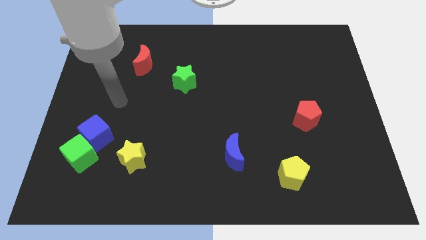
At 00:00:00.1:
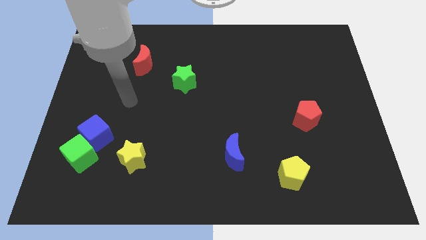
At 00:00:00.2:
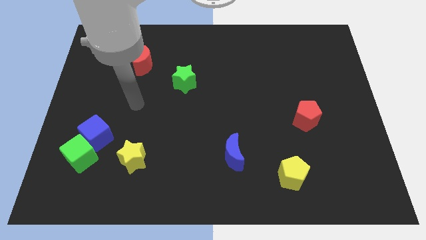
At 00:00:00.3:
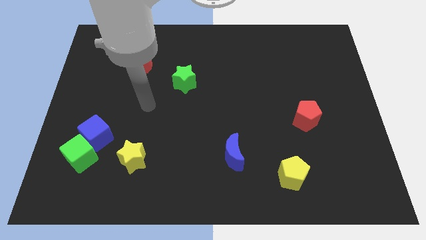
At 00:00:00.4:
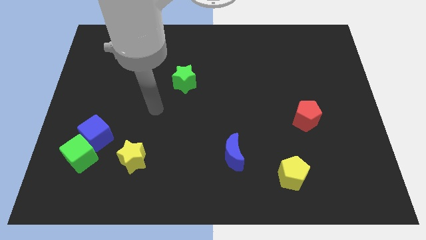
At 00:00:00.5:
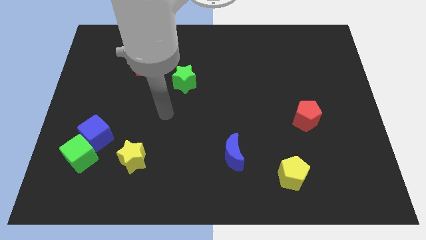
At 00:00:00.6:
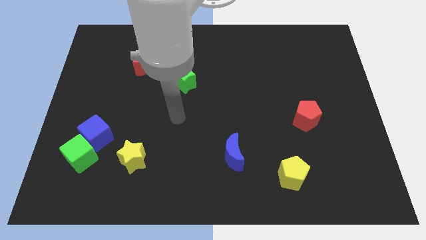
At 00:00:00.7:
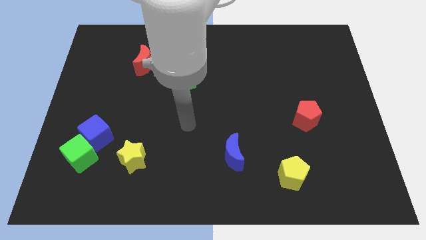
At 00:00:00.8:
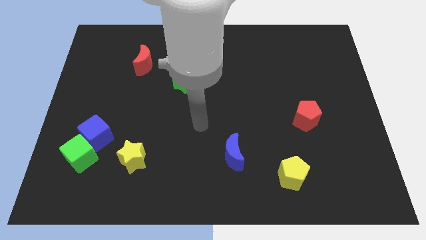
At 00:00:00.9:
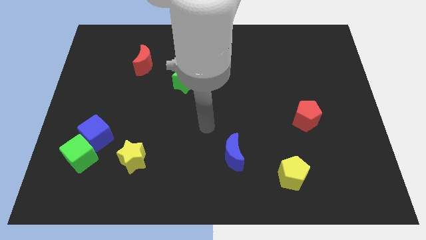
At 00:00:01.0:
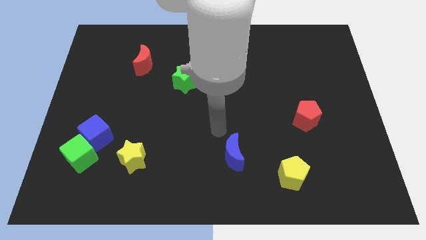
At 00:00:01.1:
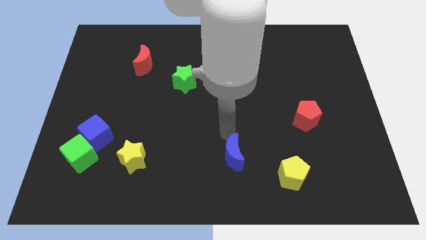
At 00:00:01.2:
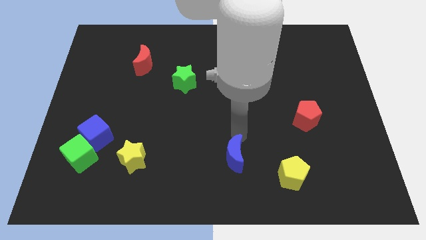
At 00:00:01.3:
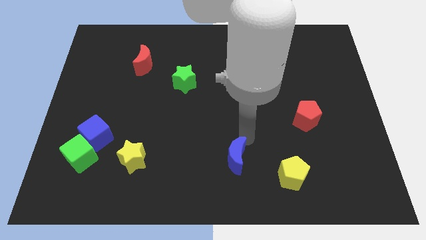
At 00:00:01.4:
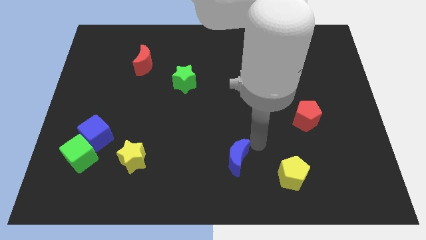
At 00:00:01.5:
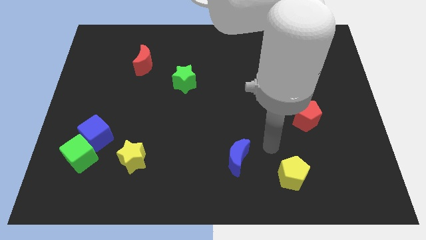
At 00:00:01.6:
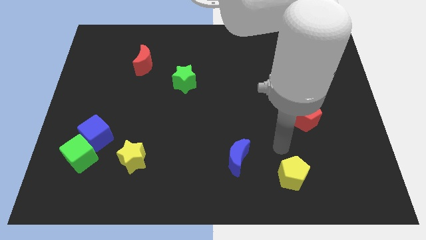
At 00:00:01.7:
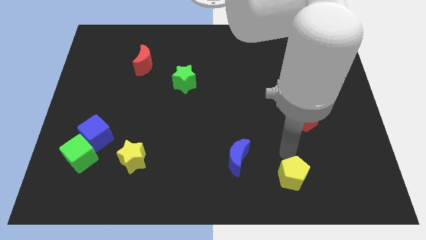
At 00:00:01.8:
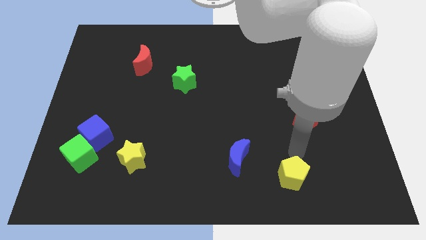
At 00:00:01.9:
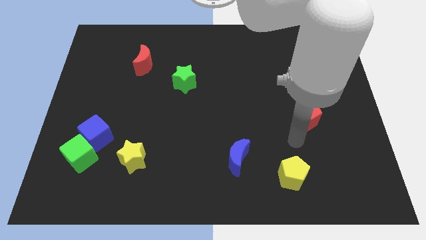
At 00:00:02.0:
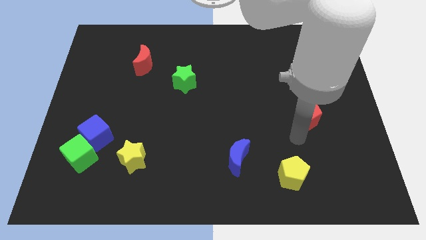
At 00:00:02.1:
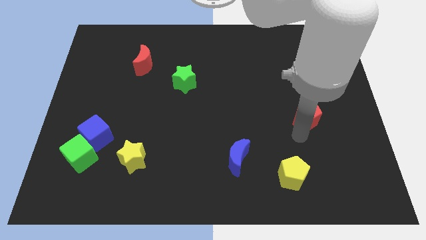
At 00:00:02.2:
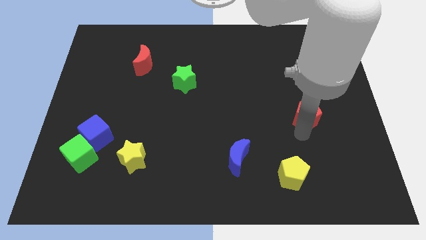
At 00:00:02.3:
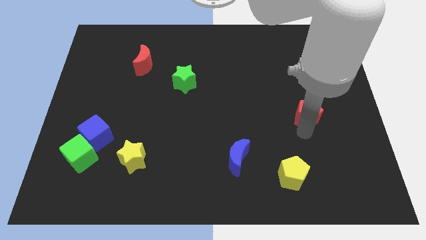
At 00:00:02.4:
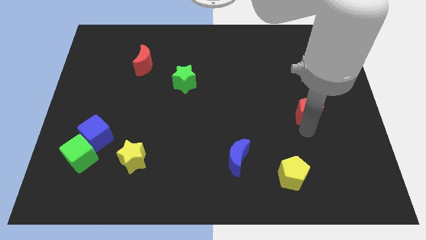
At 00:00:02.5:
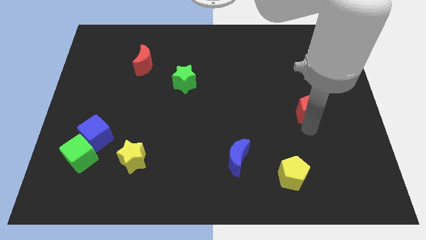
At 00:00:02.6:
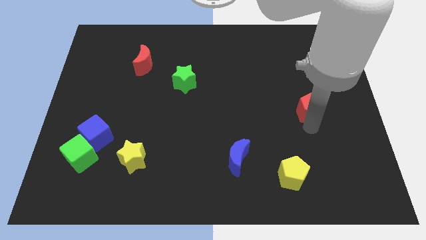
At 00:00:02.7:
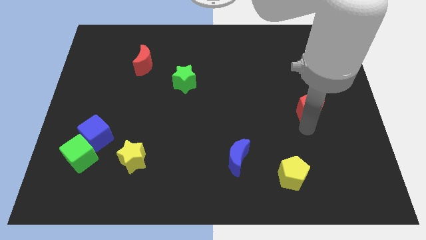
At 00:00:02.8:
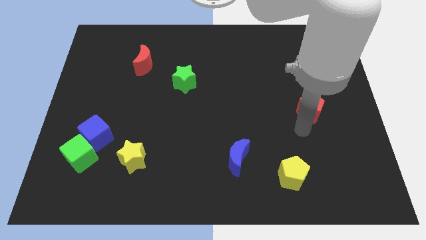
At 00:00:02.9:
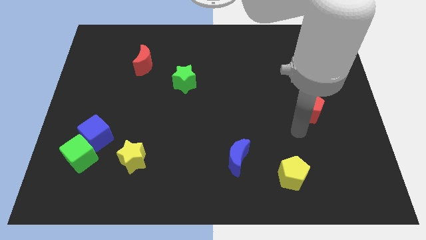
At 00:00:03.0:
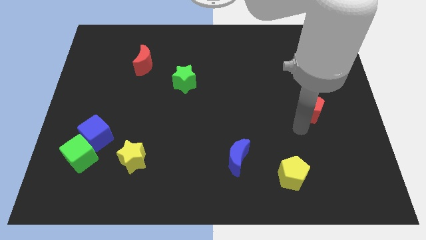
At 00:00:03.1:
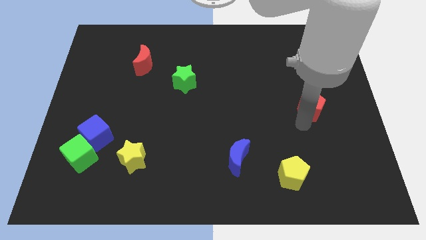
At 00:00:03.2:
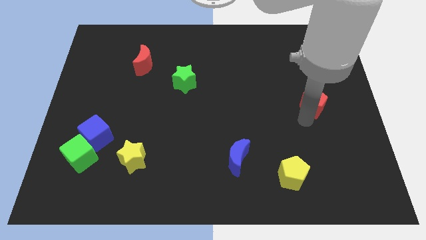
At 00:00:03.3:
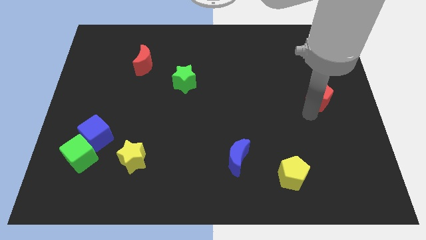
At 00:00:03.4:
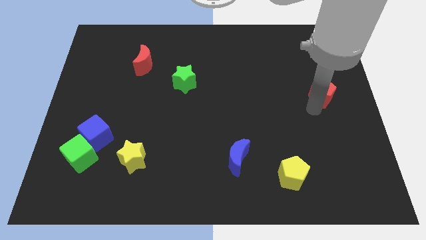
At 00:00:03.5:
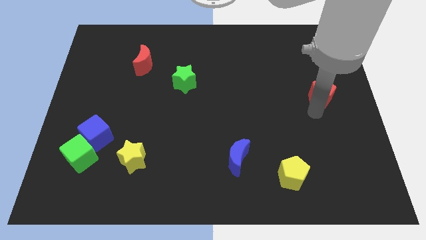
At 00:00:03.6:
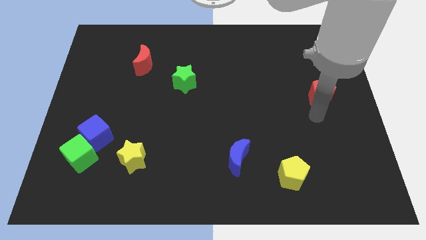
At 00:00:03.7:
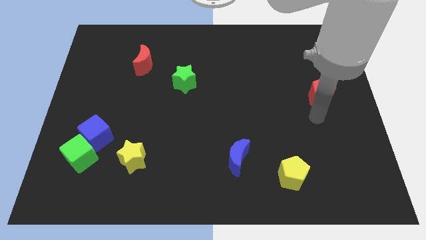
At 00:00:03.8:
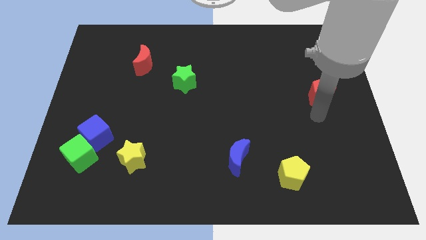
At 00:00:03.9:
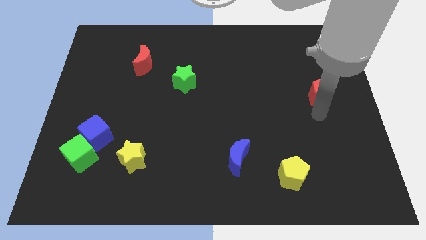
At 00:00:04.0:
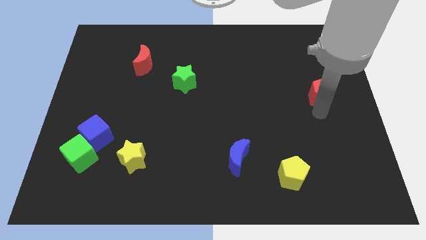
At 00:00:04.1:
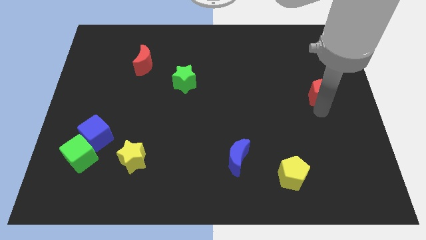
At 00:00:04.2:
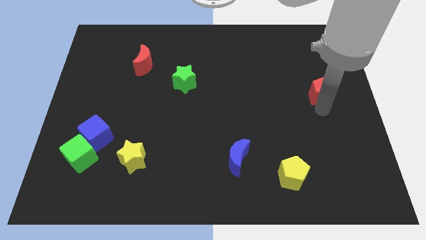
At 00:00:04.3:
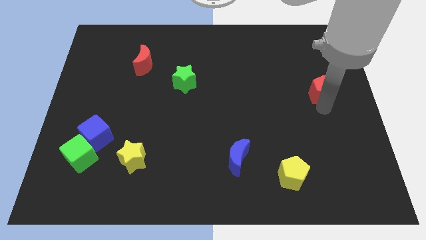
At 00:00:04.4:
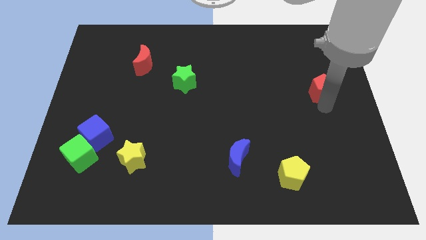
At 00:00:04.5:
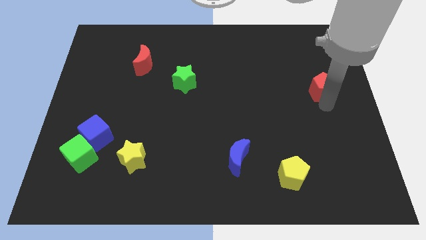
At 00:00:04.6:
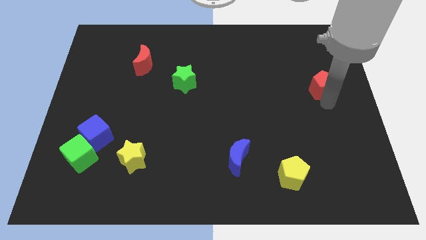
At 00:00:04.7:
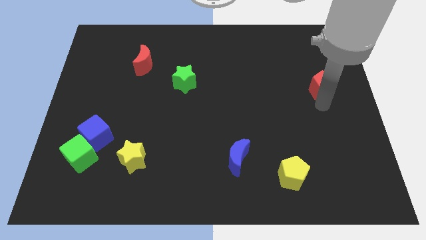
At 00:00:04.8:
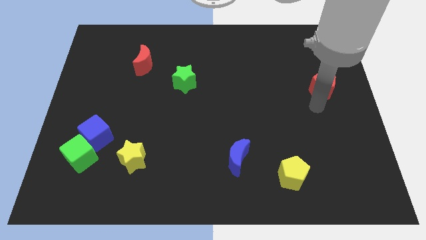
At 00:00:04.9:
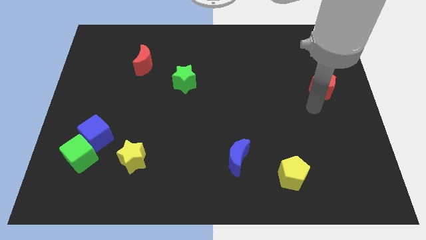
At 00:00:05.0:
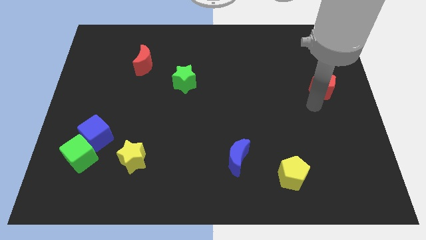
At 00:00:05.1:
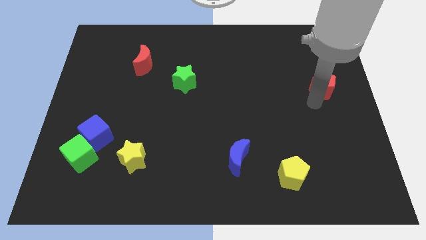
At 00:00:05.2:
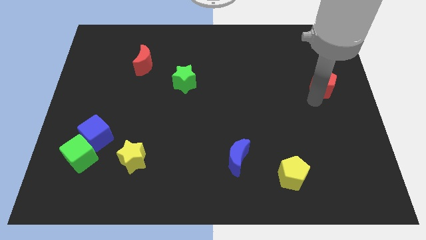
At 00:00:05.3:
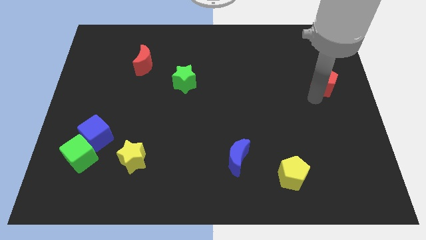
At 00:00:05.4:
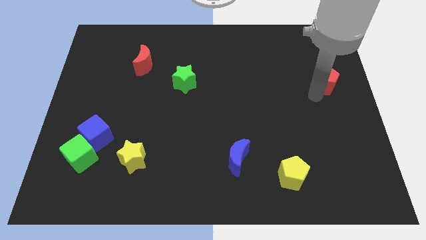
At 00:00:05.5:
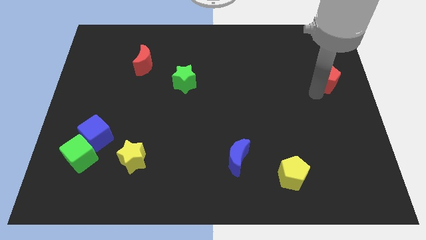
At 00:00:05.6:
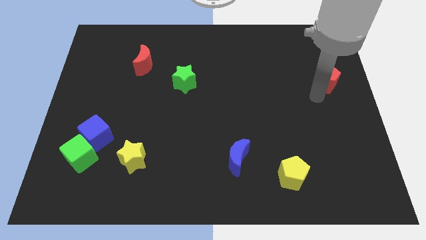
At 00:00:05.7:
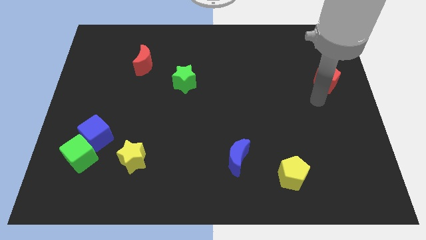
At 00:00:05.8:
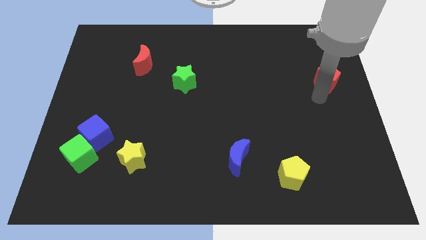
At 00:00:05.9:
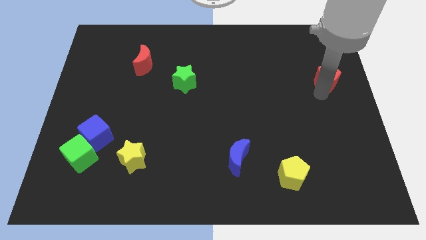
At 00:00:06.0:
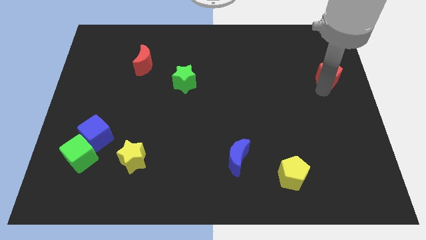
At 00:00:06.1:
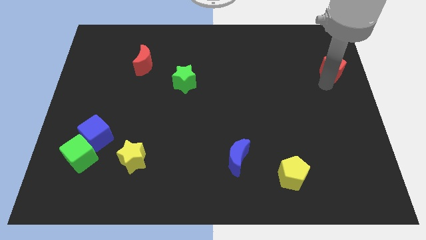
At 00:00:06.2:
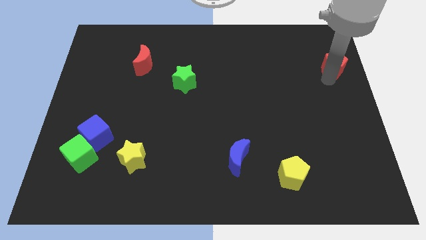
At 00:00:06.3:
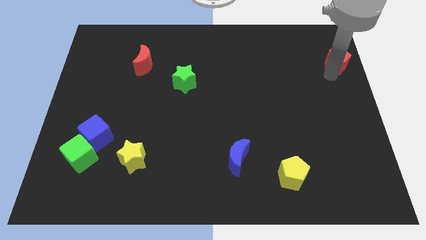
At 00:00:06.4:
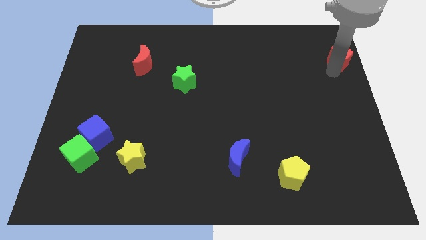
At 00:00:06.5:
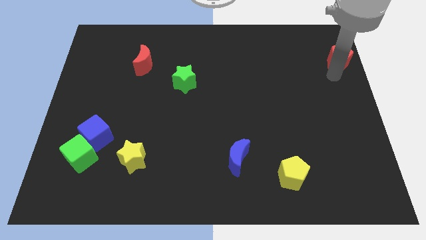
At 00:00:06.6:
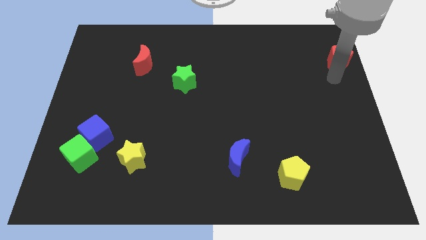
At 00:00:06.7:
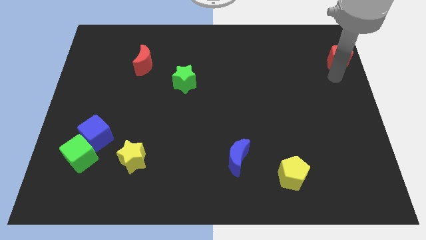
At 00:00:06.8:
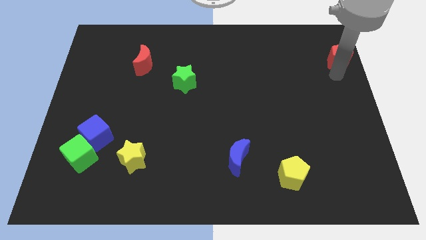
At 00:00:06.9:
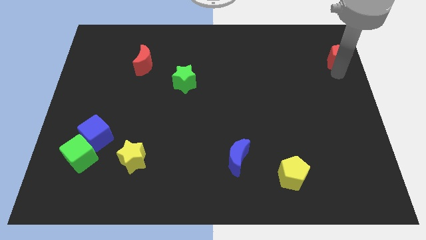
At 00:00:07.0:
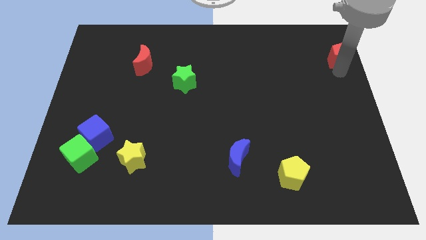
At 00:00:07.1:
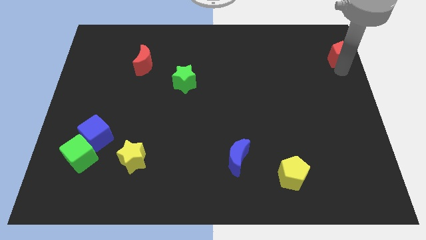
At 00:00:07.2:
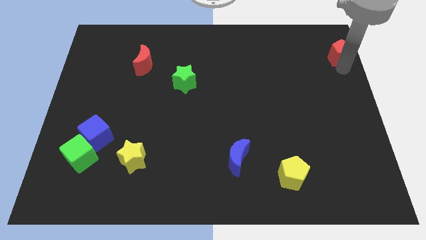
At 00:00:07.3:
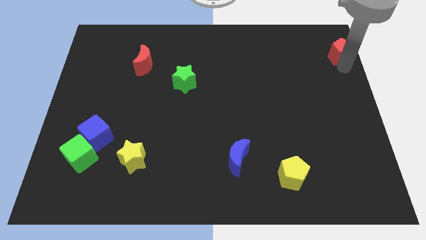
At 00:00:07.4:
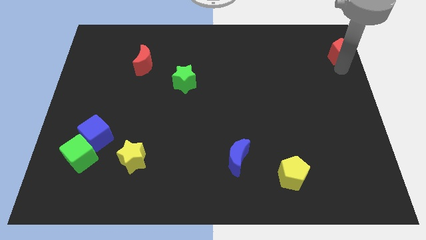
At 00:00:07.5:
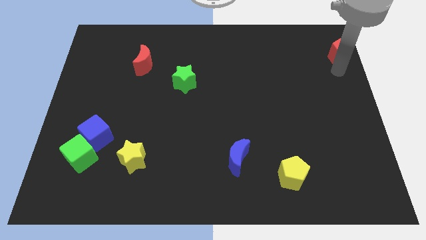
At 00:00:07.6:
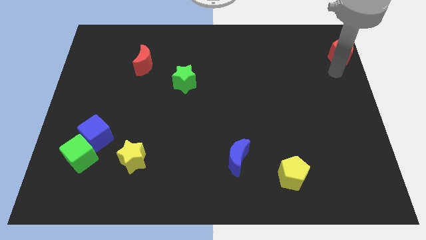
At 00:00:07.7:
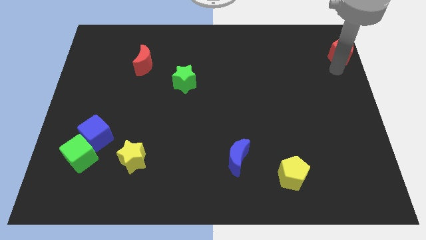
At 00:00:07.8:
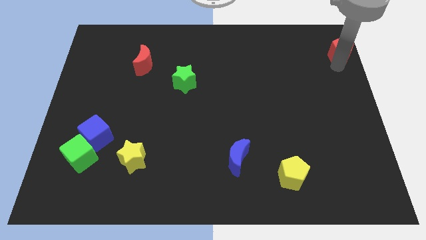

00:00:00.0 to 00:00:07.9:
move the red pentagon to the top right
